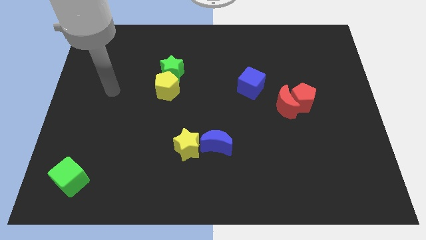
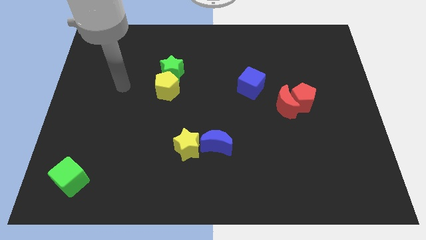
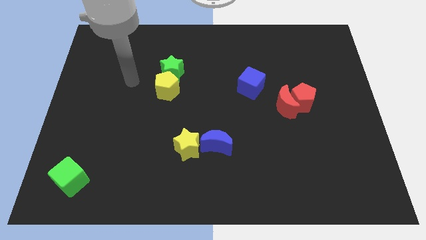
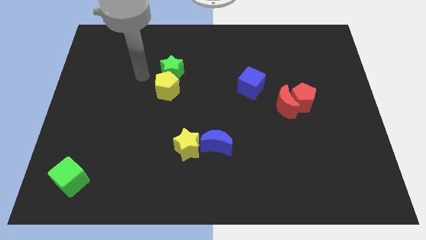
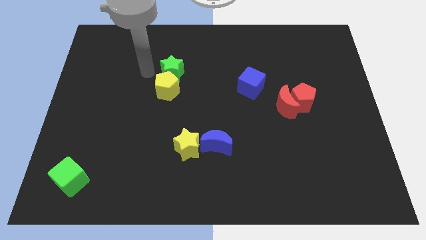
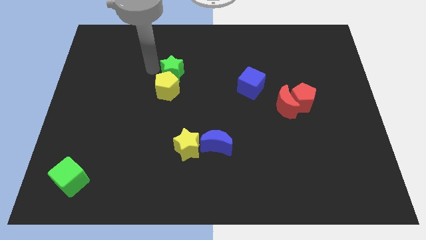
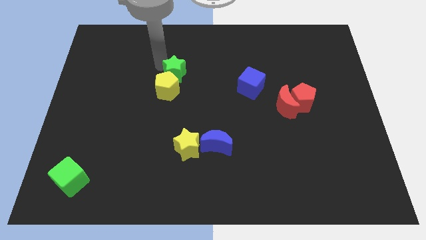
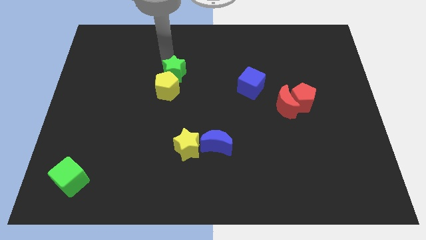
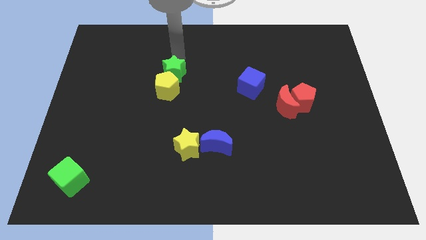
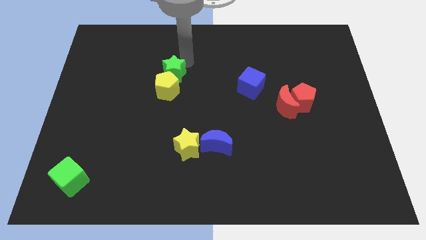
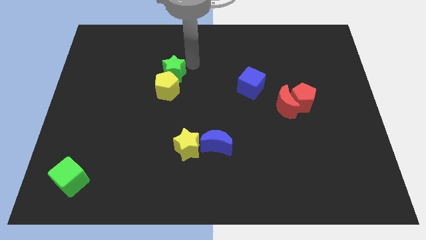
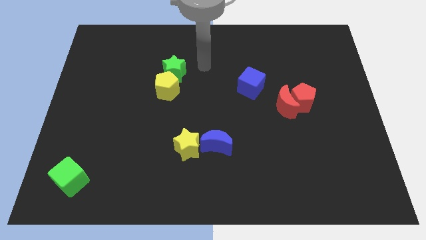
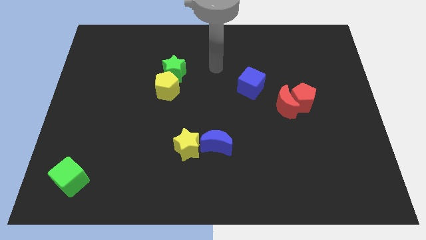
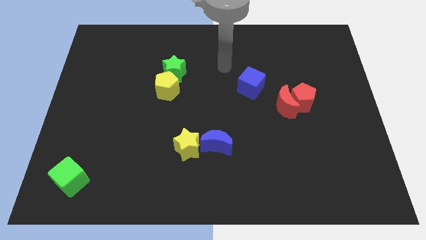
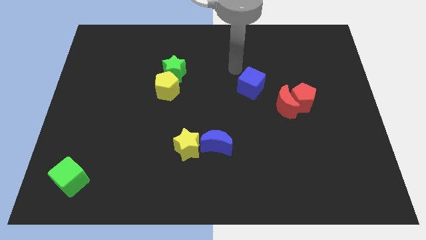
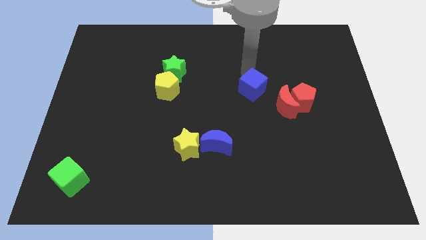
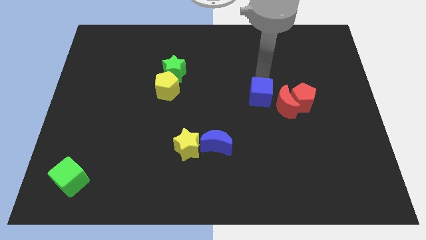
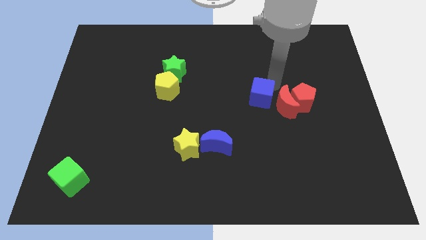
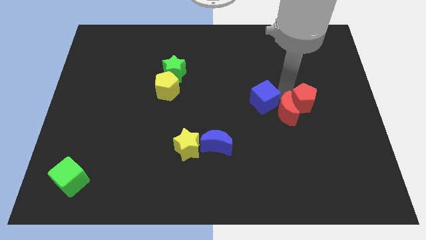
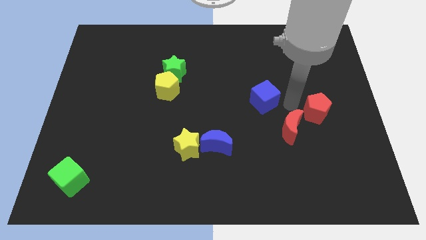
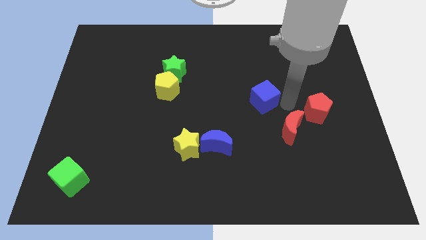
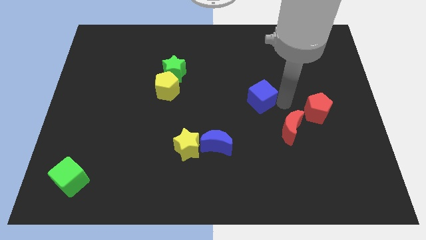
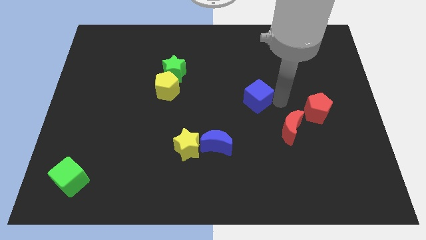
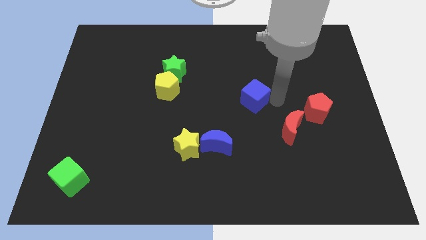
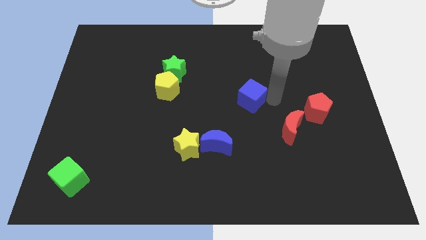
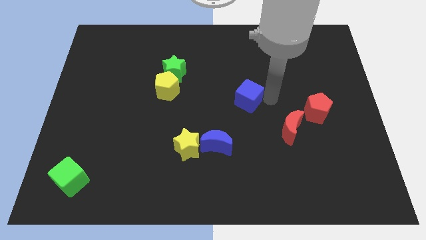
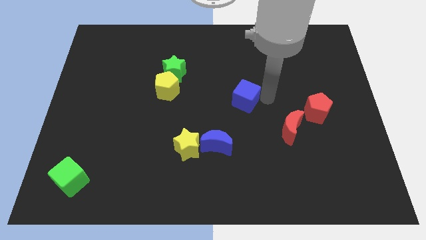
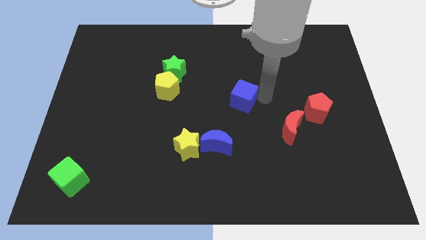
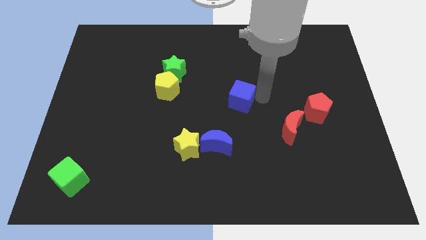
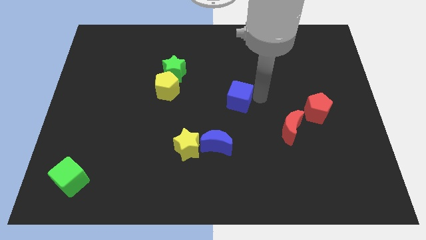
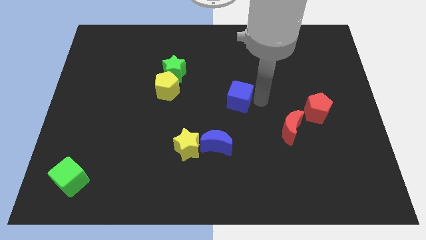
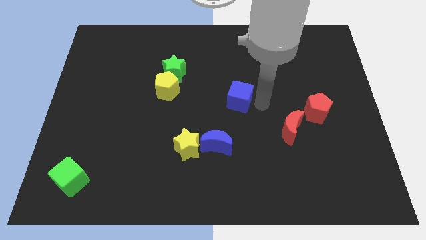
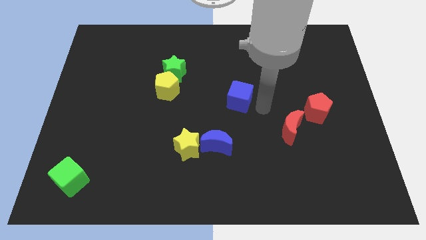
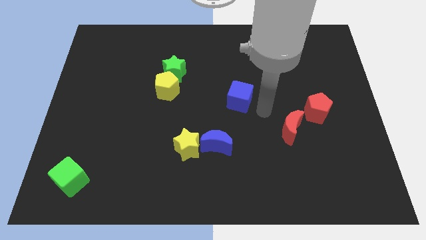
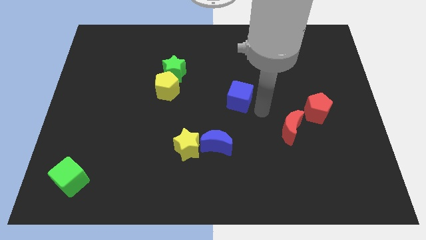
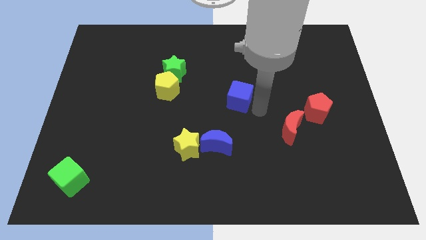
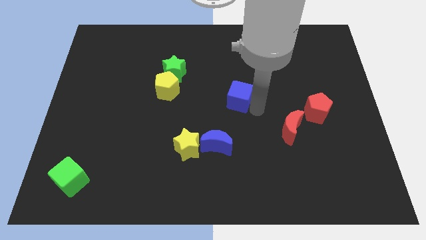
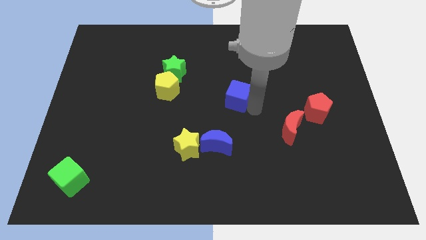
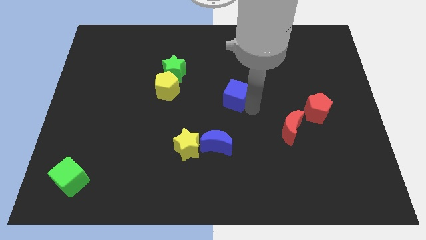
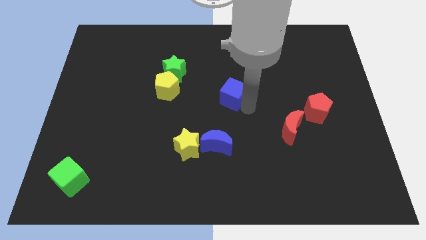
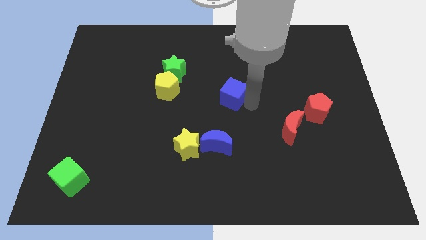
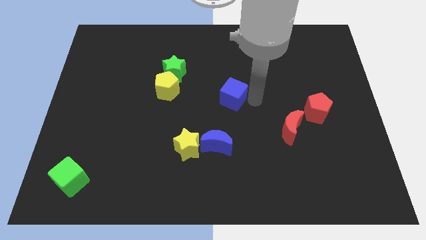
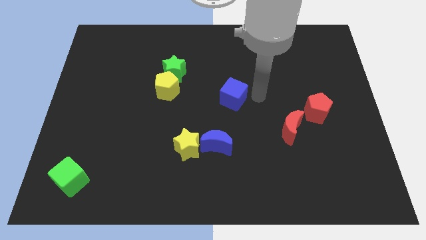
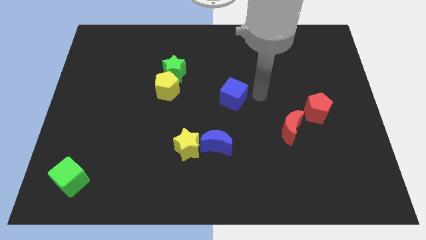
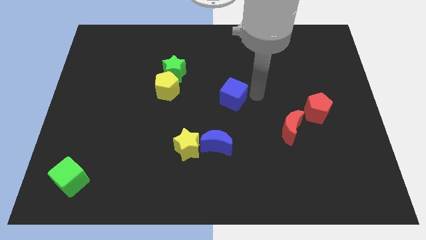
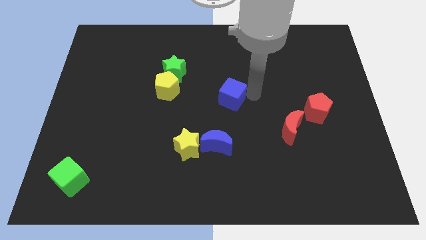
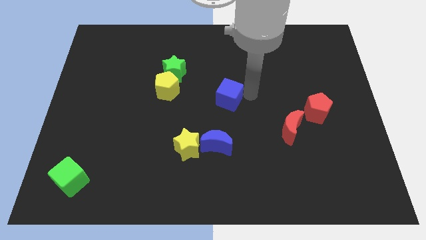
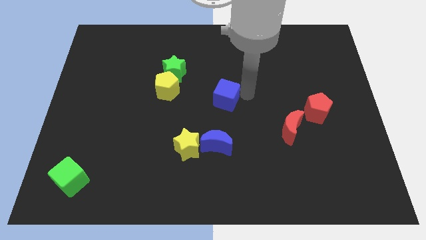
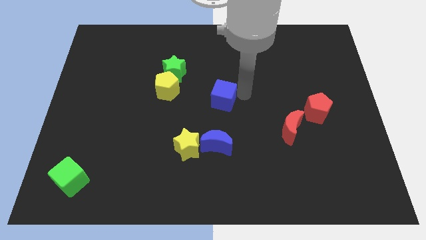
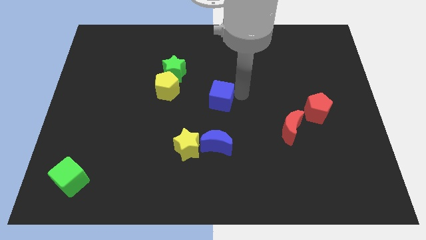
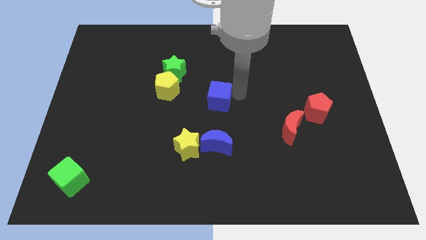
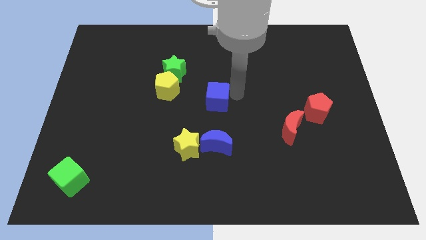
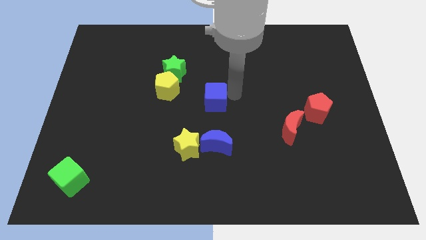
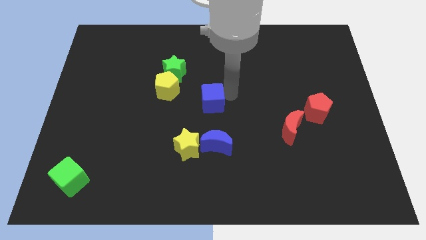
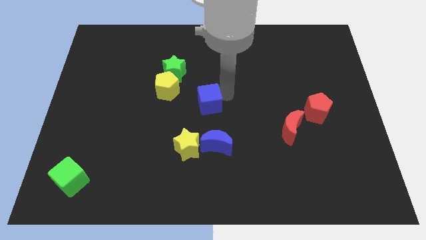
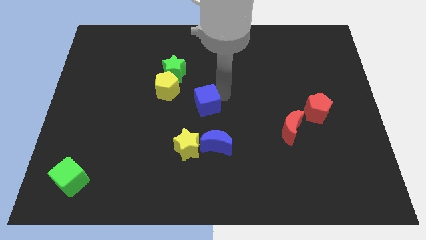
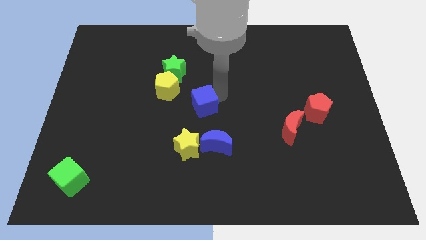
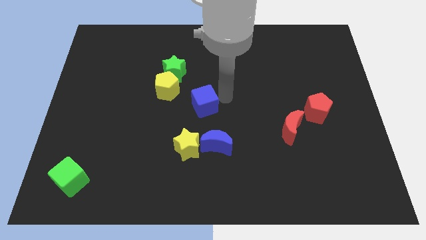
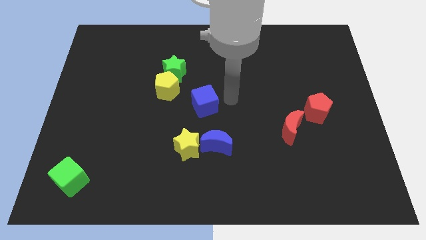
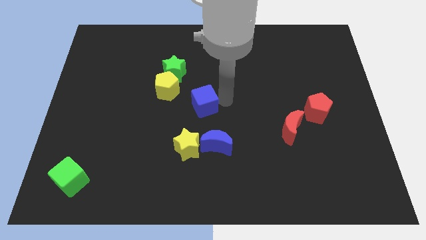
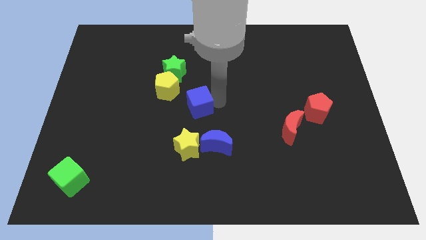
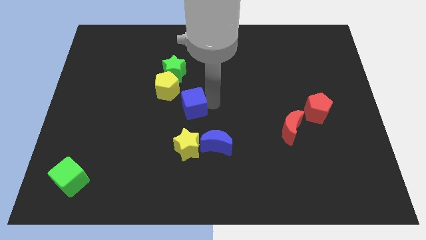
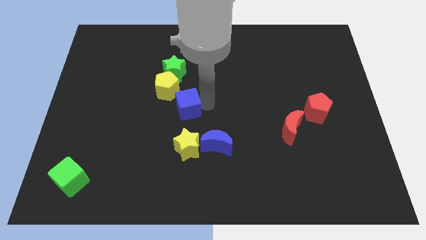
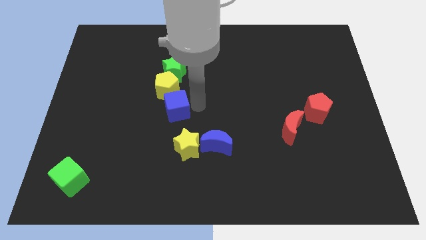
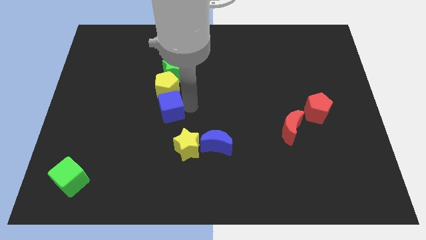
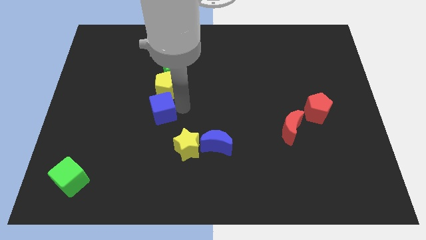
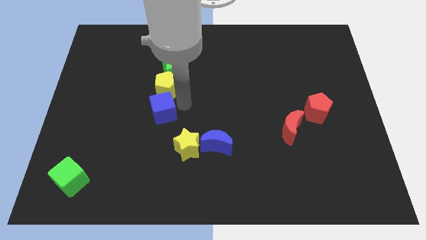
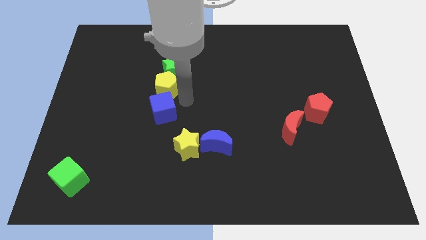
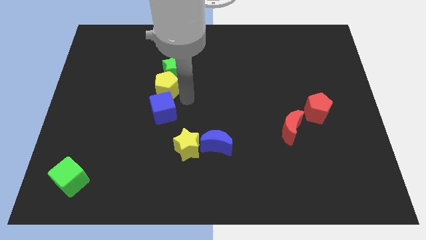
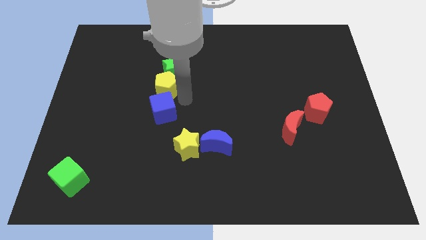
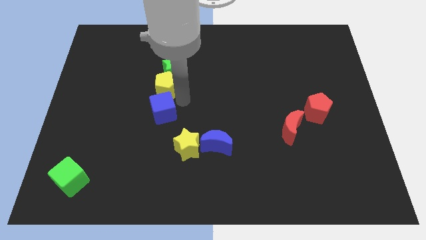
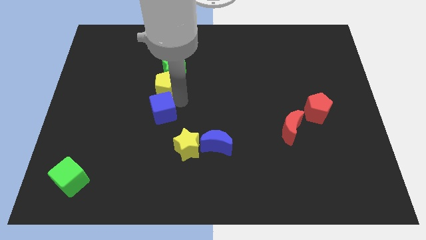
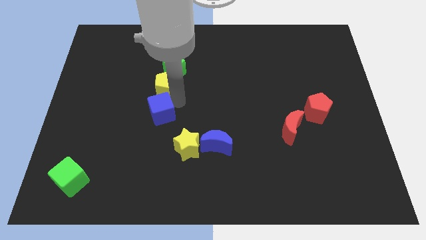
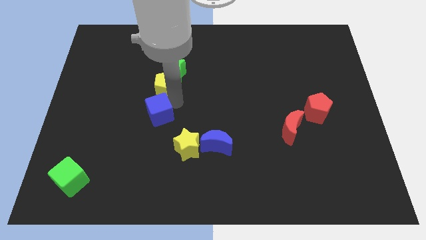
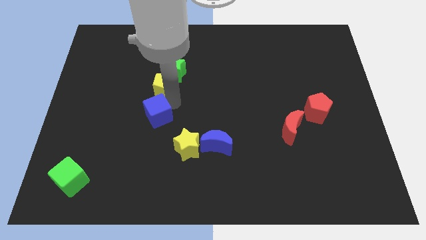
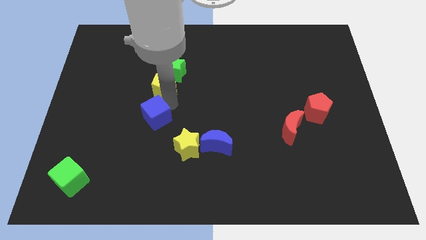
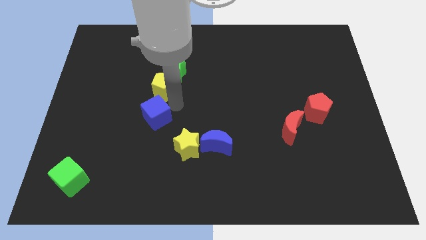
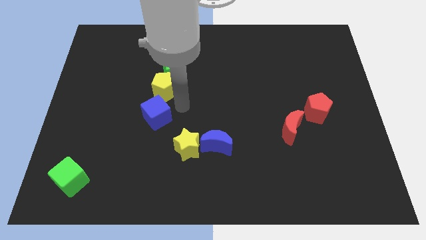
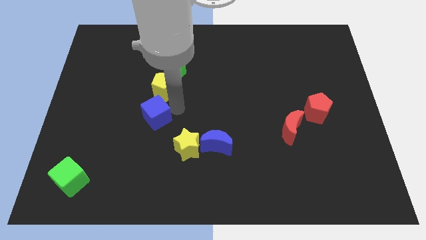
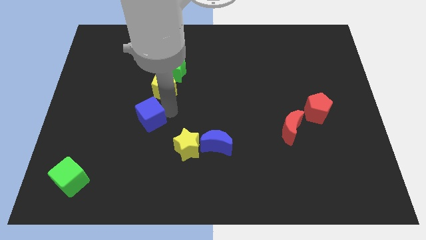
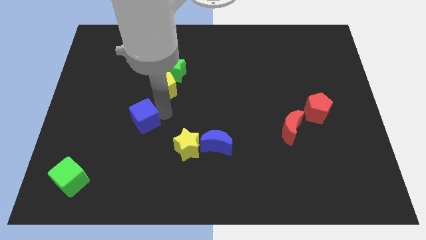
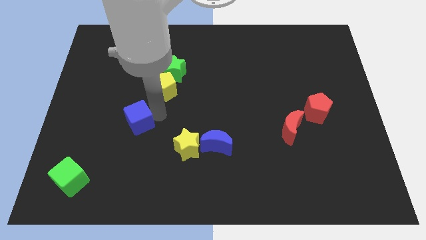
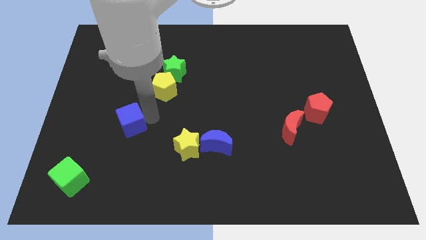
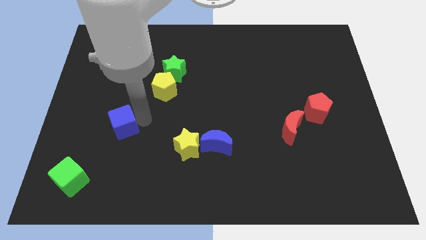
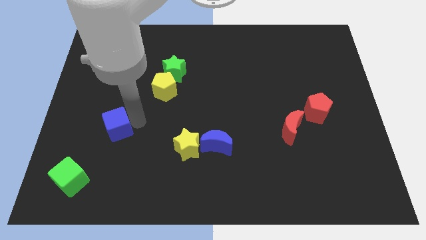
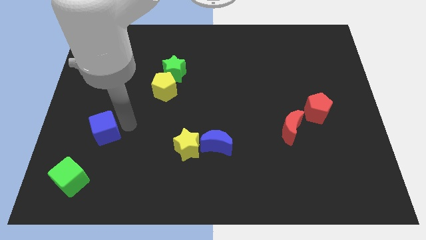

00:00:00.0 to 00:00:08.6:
put the blue cube to the top of the green cube
